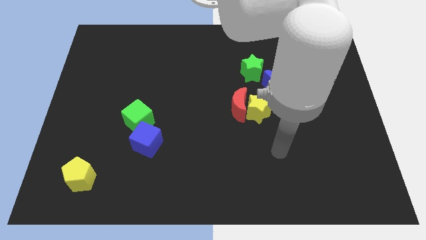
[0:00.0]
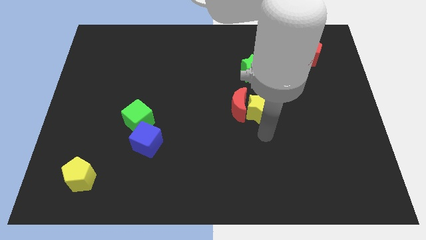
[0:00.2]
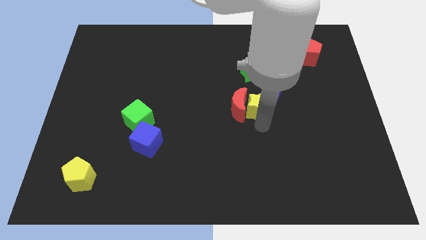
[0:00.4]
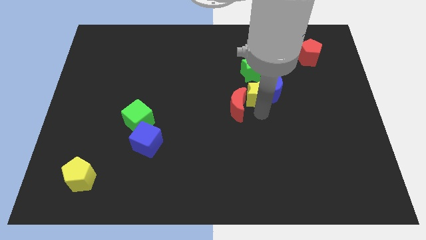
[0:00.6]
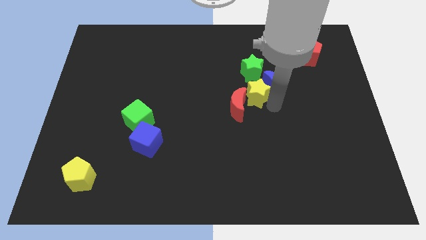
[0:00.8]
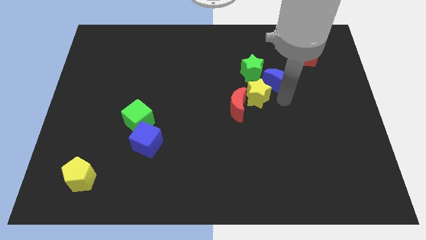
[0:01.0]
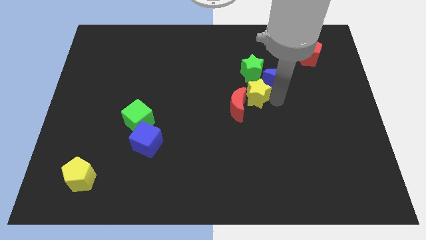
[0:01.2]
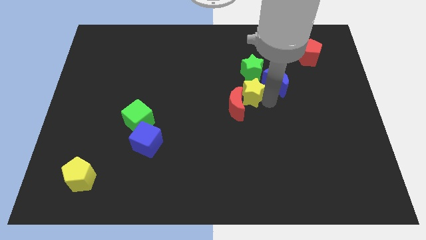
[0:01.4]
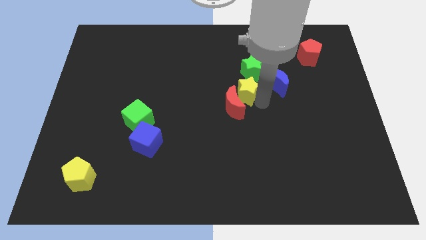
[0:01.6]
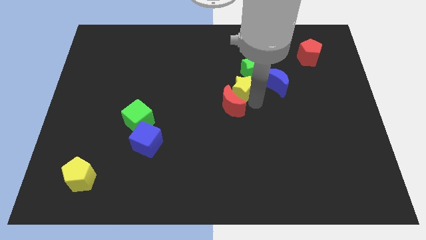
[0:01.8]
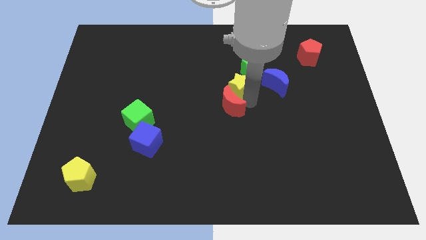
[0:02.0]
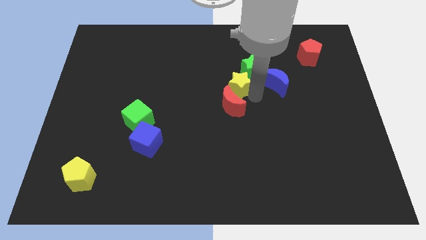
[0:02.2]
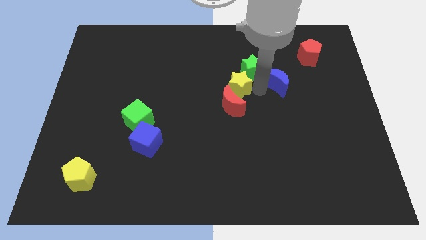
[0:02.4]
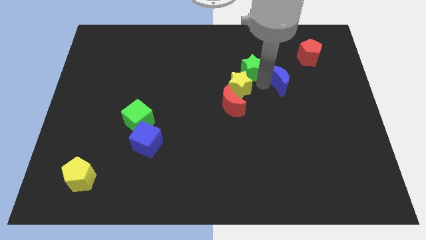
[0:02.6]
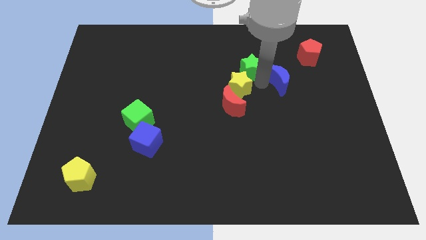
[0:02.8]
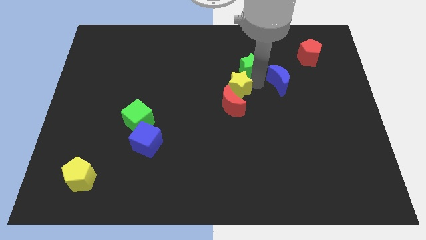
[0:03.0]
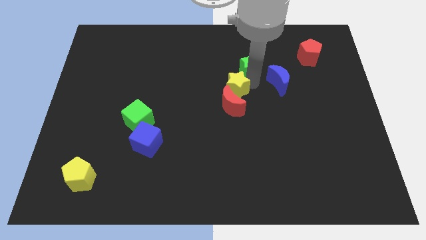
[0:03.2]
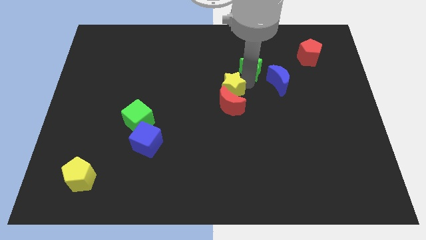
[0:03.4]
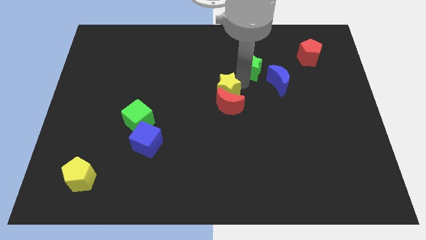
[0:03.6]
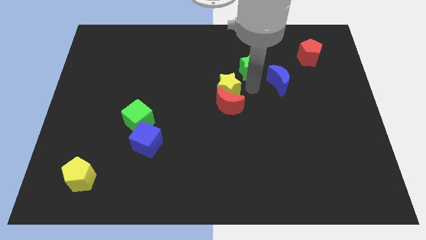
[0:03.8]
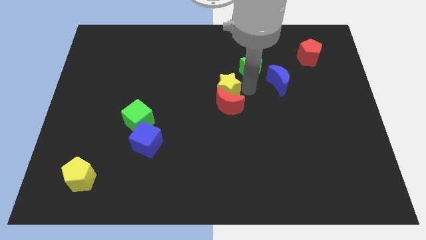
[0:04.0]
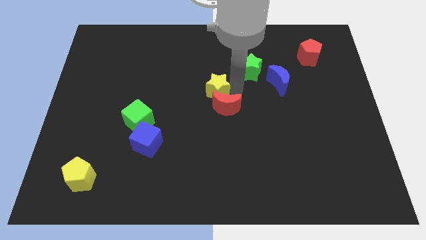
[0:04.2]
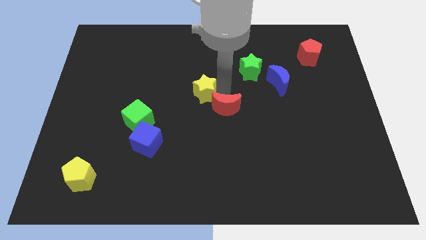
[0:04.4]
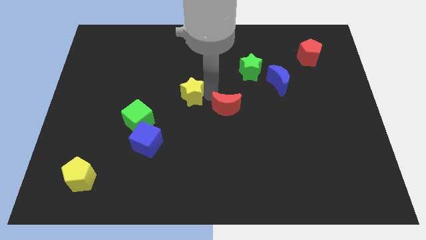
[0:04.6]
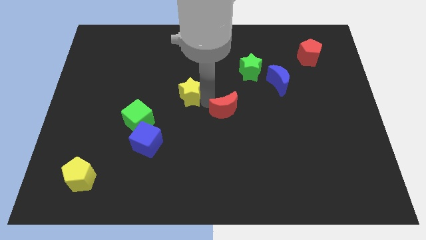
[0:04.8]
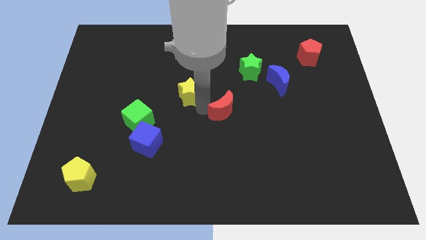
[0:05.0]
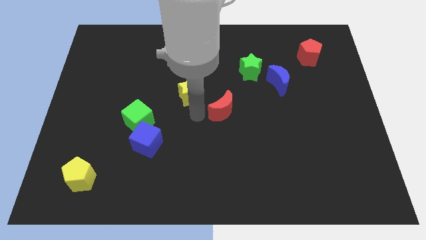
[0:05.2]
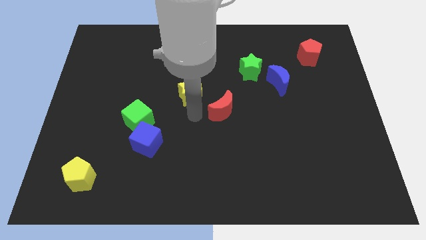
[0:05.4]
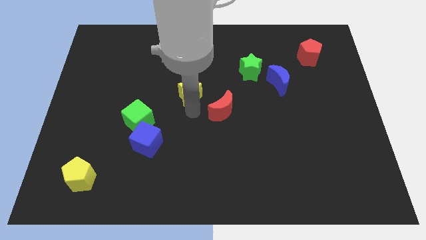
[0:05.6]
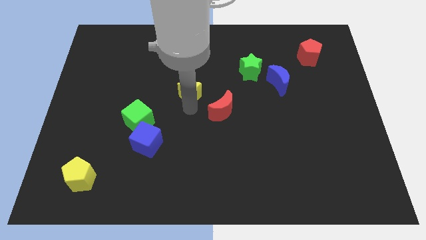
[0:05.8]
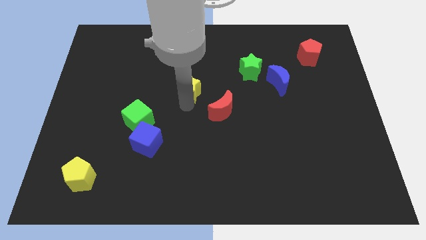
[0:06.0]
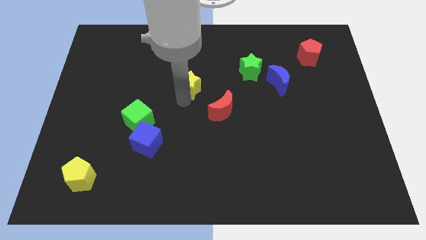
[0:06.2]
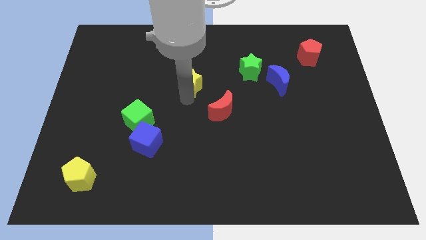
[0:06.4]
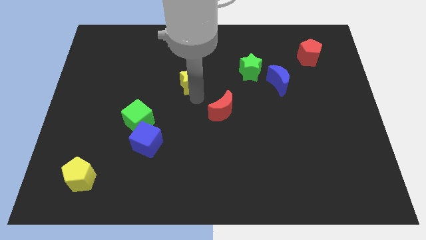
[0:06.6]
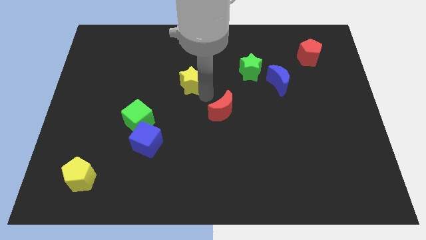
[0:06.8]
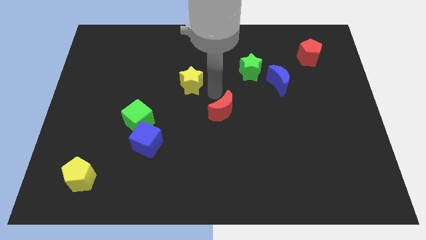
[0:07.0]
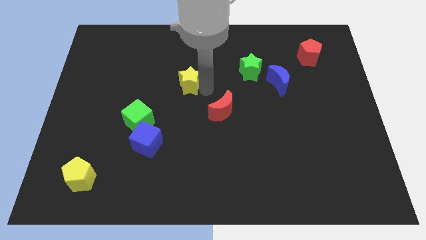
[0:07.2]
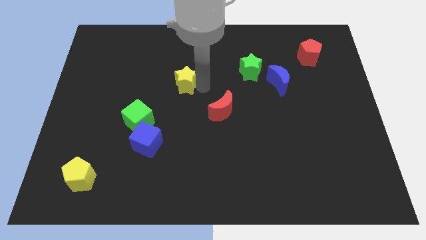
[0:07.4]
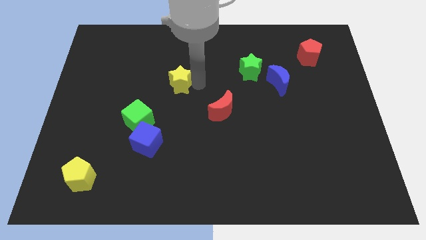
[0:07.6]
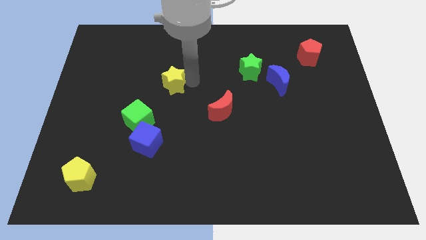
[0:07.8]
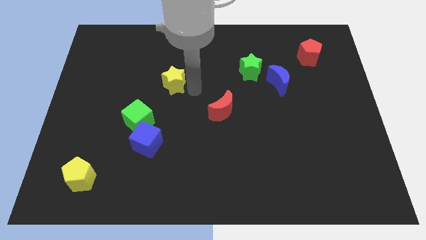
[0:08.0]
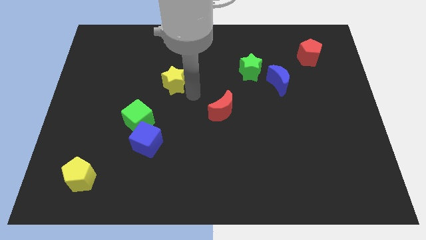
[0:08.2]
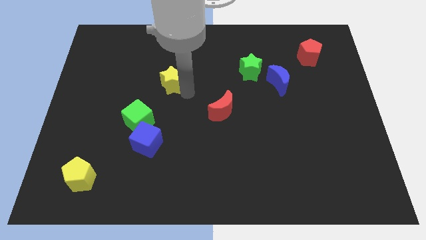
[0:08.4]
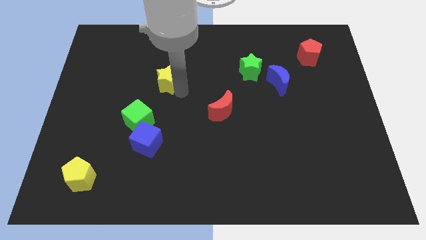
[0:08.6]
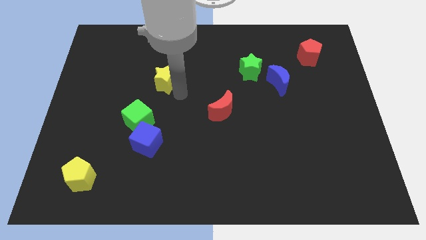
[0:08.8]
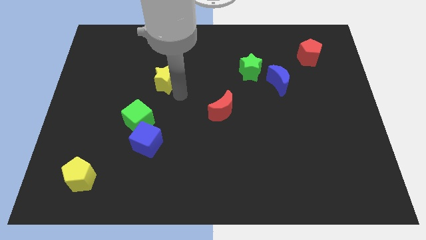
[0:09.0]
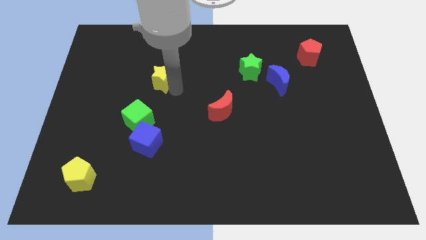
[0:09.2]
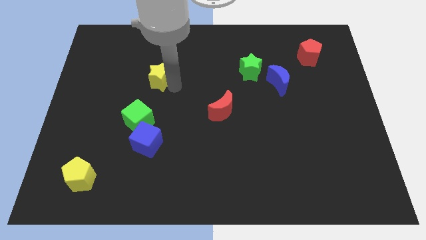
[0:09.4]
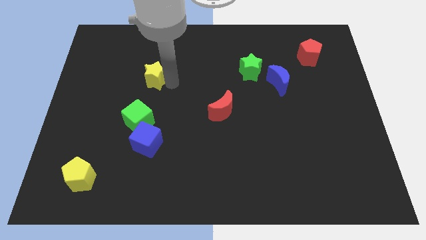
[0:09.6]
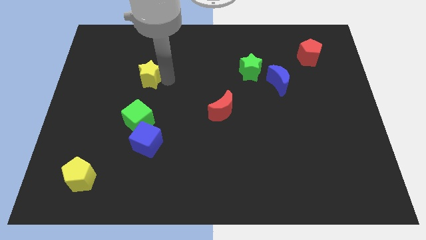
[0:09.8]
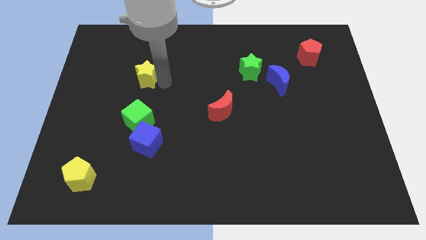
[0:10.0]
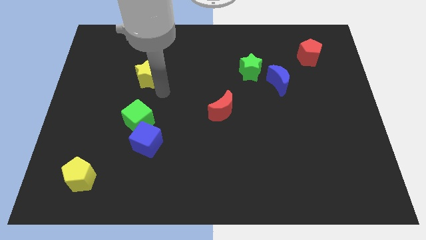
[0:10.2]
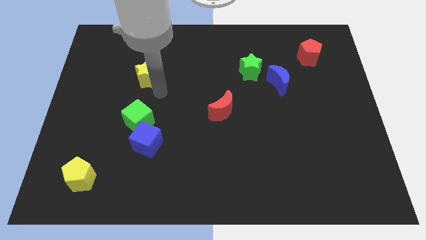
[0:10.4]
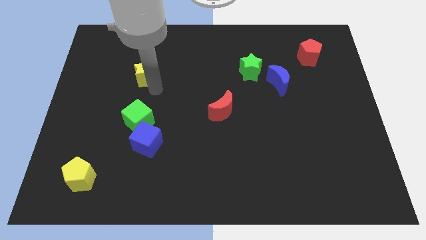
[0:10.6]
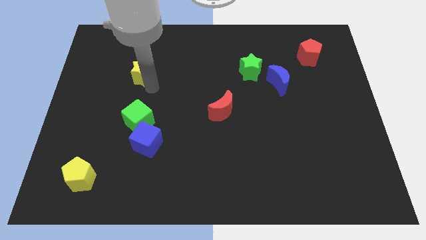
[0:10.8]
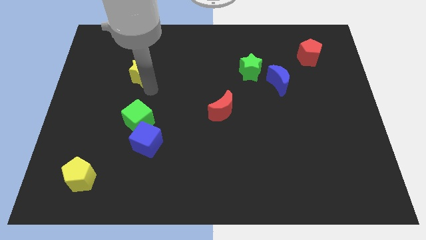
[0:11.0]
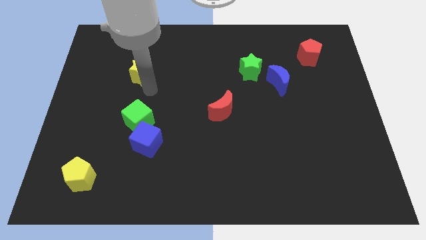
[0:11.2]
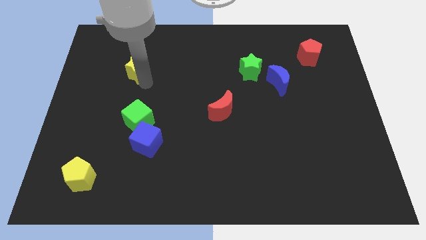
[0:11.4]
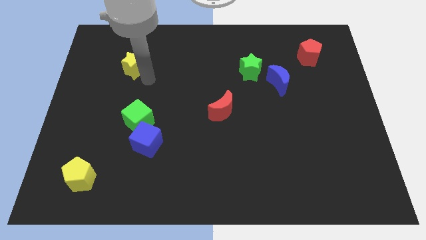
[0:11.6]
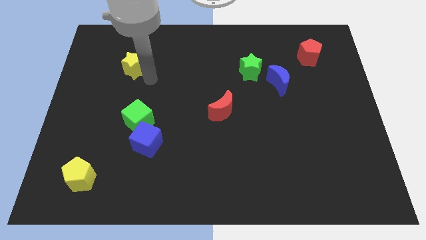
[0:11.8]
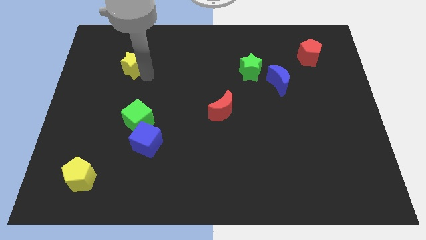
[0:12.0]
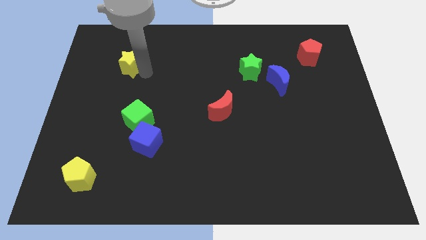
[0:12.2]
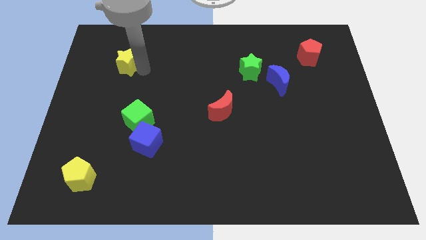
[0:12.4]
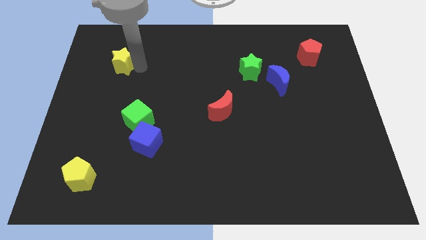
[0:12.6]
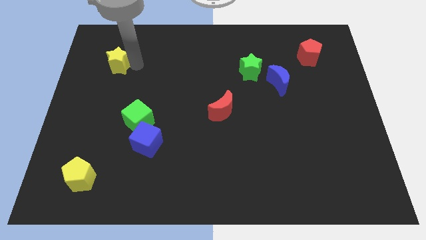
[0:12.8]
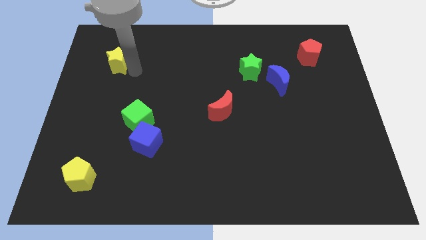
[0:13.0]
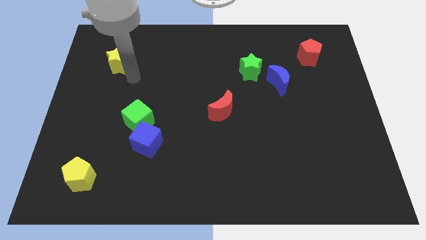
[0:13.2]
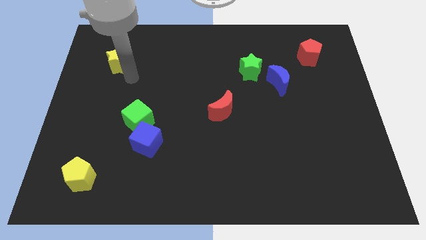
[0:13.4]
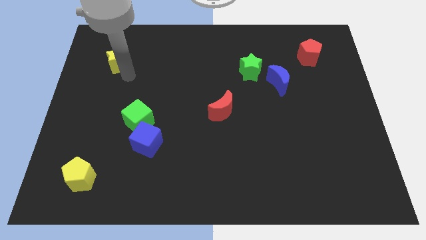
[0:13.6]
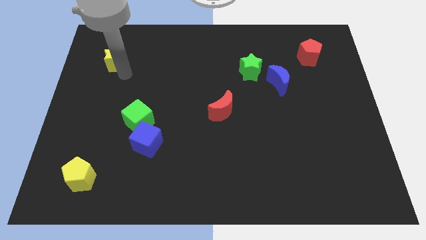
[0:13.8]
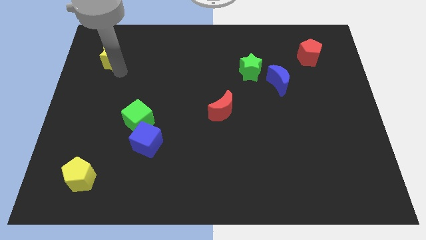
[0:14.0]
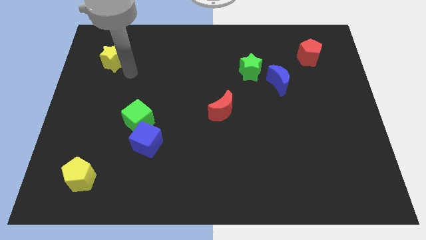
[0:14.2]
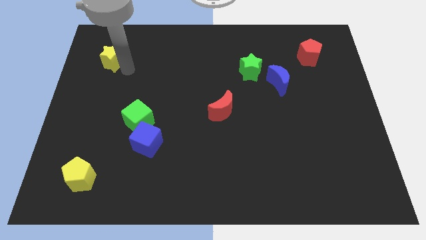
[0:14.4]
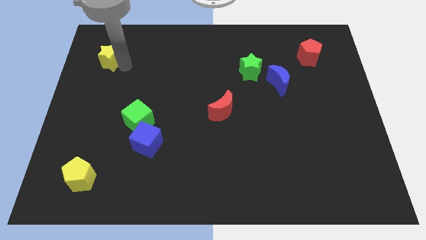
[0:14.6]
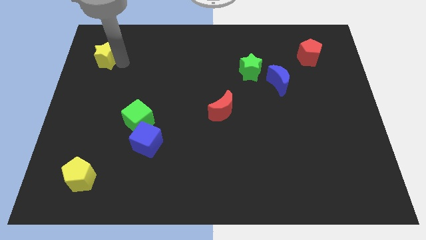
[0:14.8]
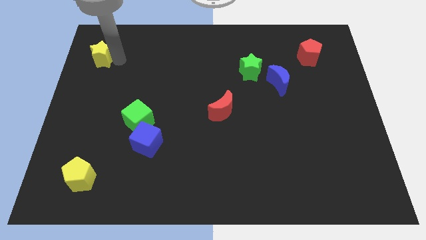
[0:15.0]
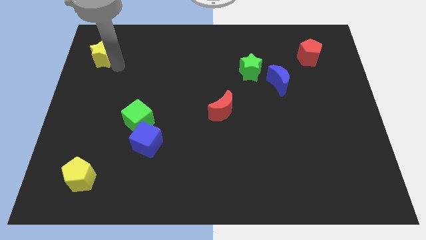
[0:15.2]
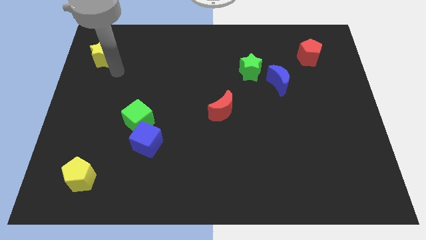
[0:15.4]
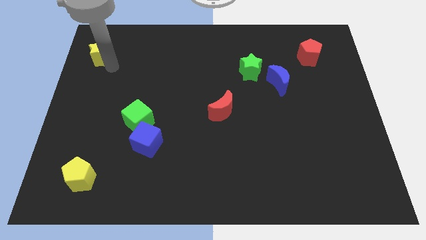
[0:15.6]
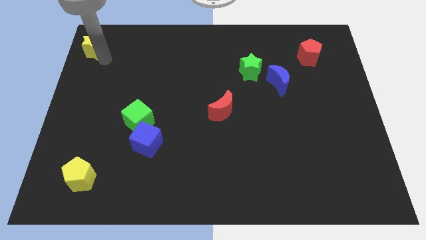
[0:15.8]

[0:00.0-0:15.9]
slide the yellow star to the upper left corner
